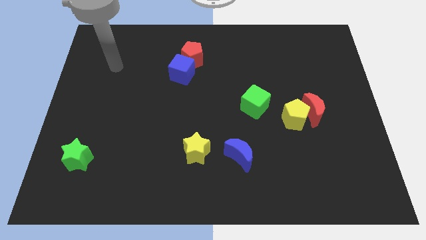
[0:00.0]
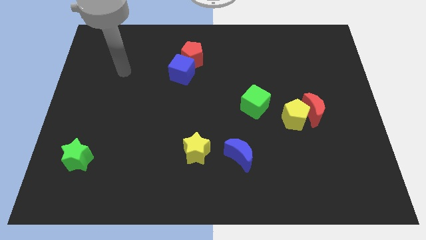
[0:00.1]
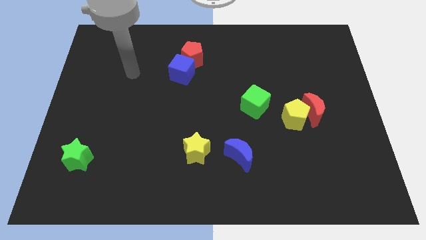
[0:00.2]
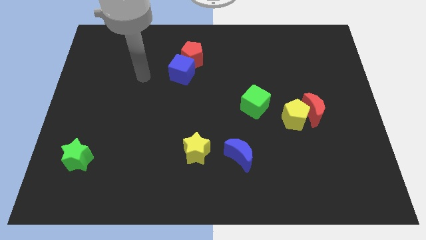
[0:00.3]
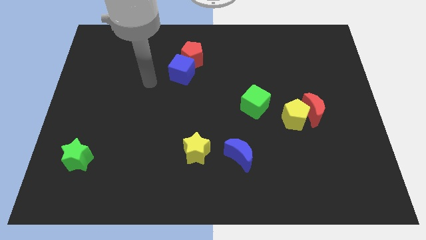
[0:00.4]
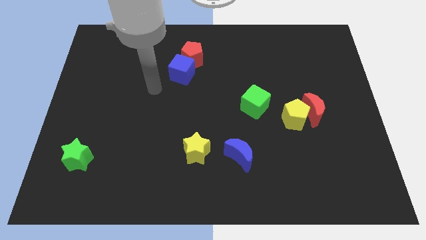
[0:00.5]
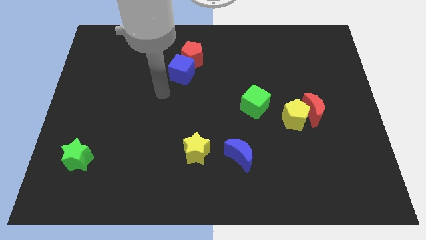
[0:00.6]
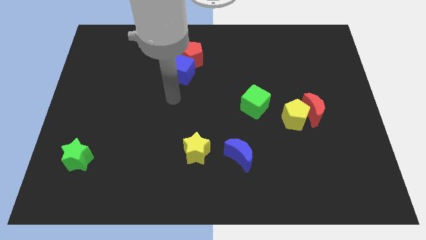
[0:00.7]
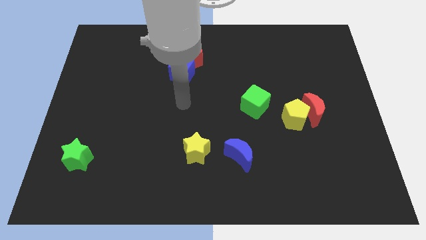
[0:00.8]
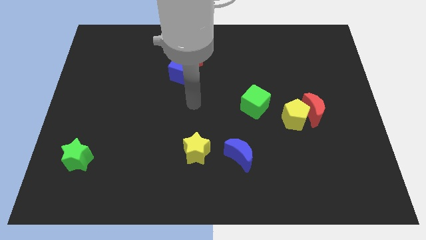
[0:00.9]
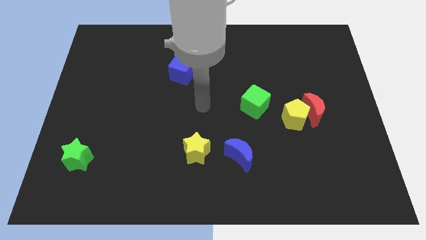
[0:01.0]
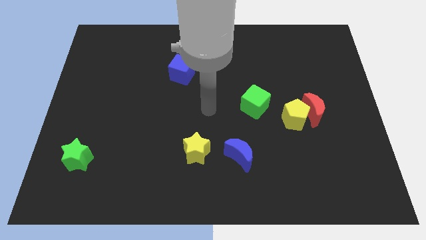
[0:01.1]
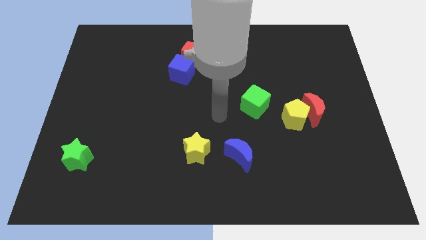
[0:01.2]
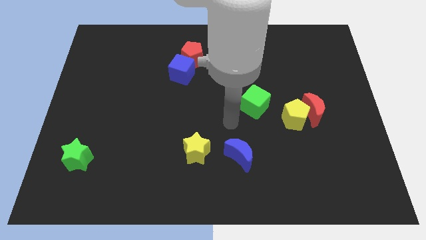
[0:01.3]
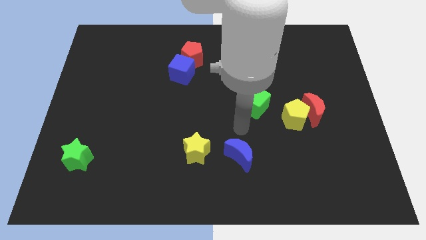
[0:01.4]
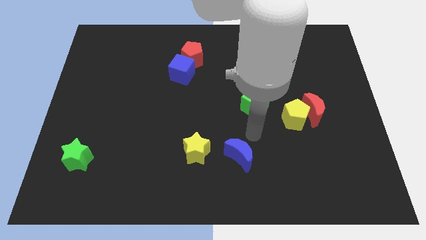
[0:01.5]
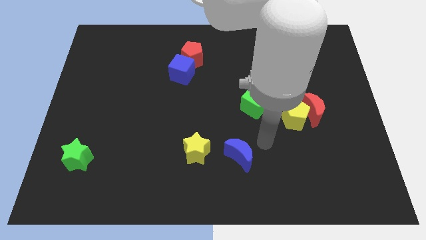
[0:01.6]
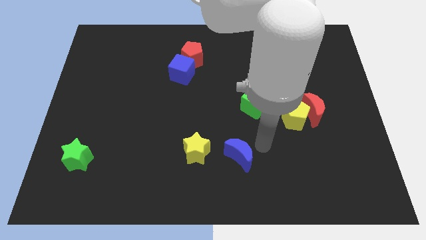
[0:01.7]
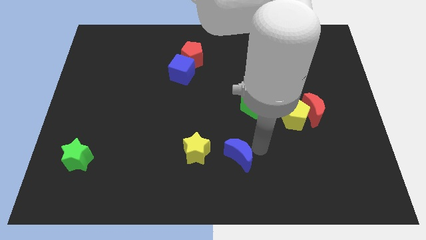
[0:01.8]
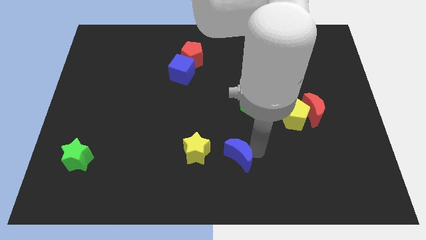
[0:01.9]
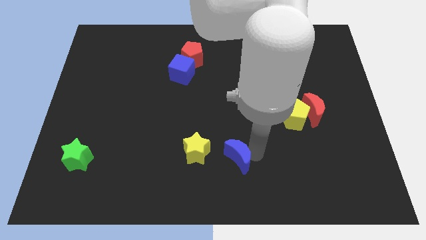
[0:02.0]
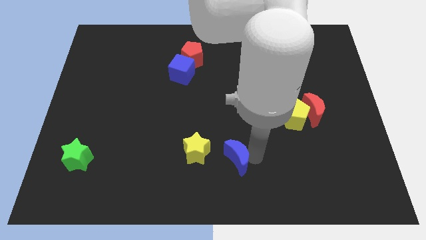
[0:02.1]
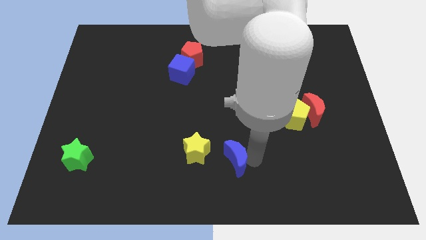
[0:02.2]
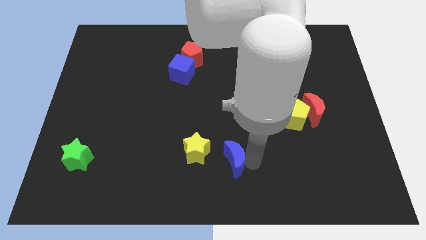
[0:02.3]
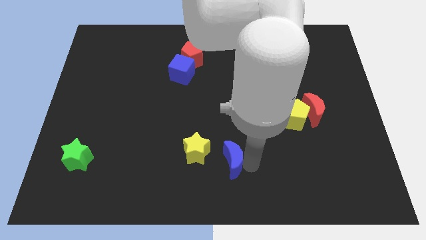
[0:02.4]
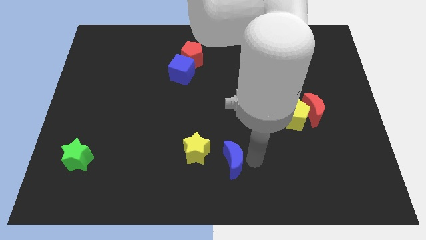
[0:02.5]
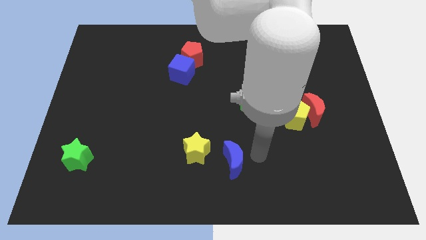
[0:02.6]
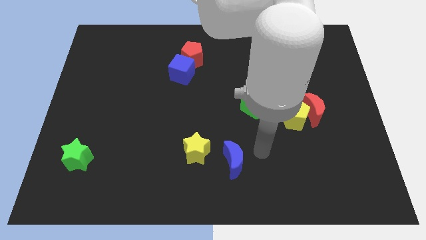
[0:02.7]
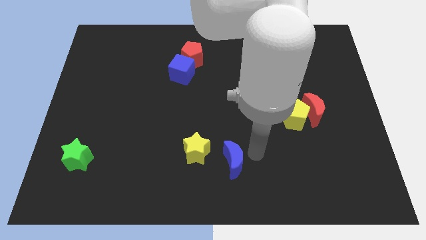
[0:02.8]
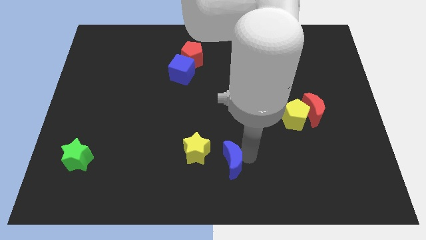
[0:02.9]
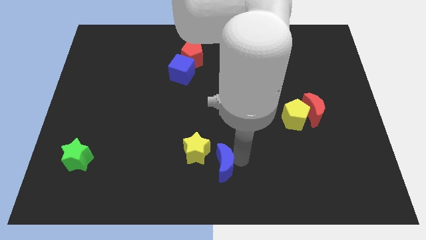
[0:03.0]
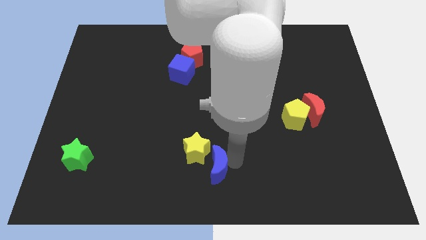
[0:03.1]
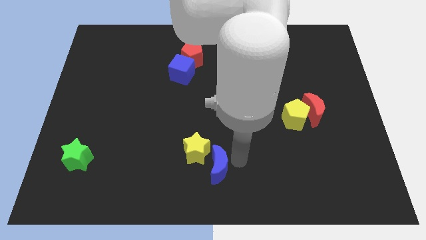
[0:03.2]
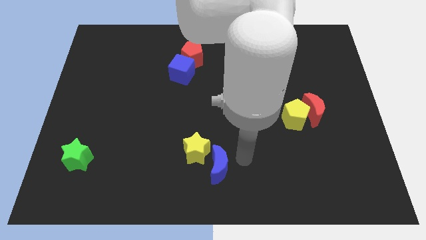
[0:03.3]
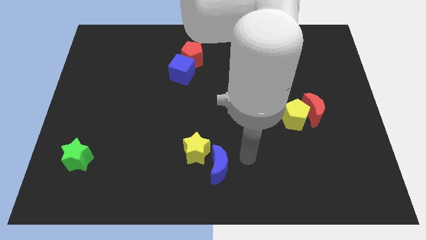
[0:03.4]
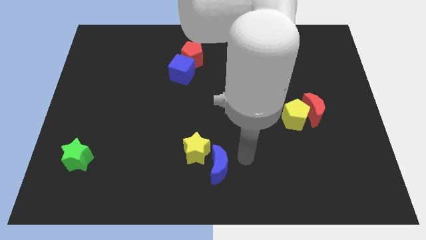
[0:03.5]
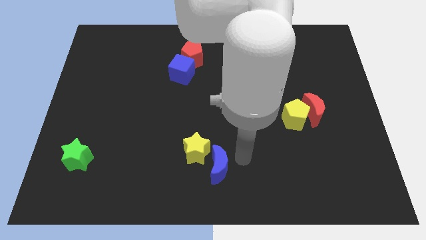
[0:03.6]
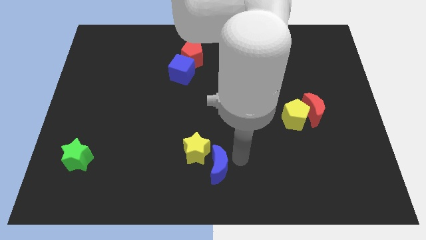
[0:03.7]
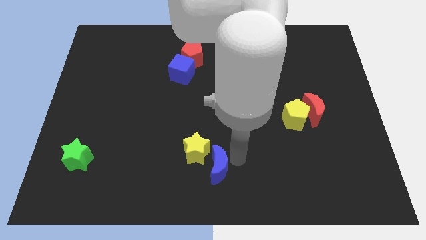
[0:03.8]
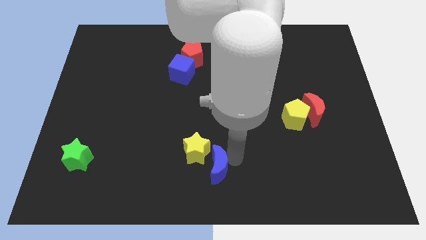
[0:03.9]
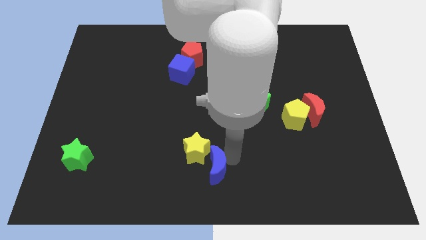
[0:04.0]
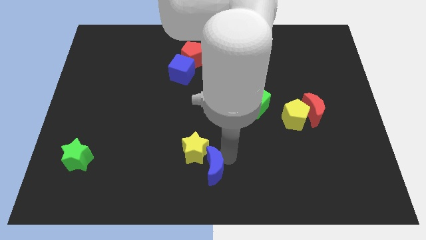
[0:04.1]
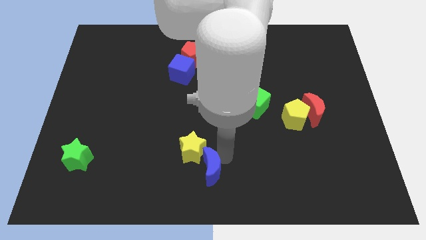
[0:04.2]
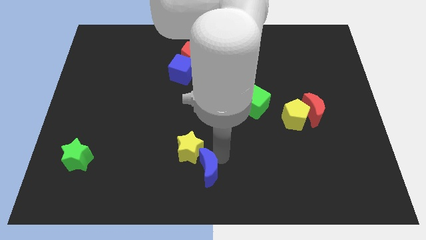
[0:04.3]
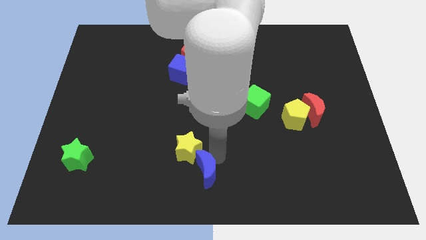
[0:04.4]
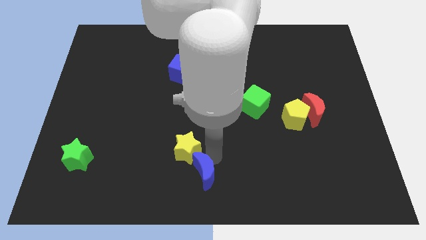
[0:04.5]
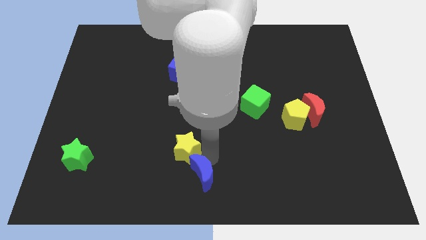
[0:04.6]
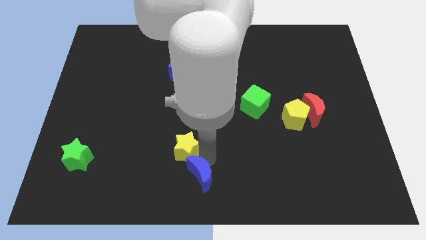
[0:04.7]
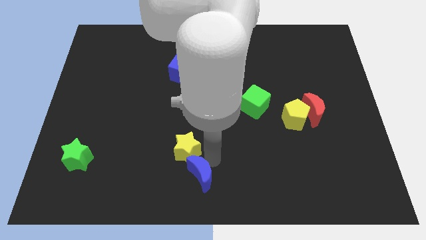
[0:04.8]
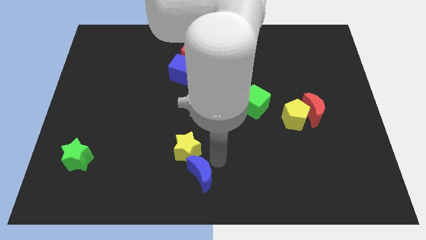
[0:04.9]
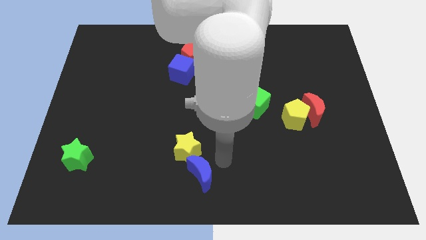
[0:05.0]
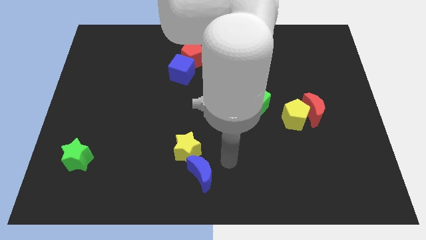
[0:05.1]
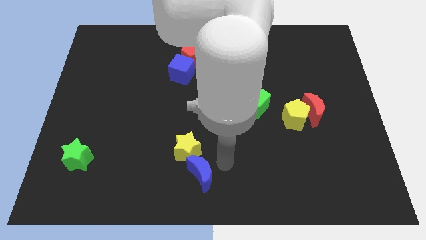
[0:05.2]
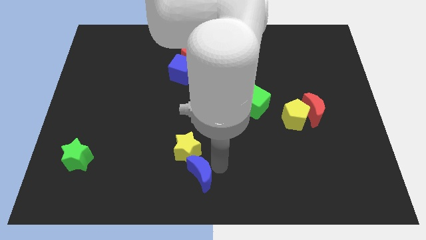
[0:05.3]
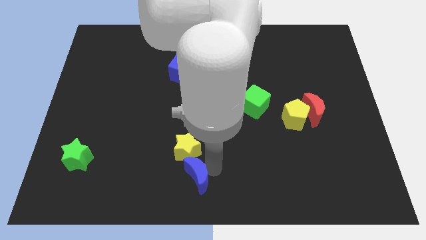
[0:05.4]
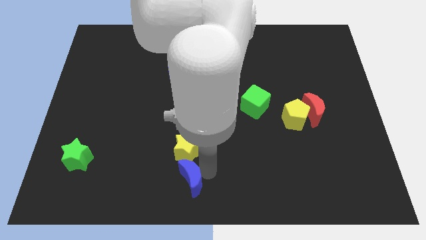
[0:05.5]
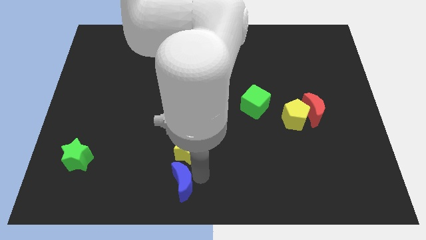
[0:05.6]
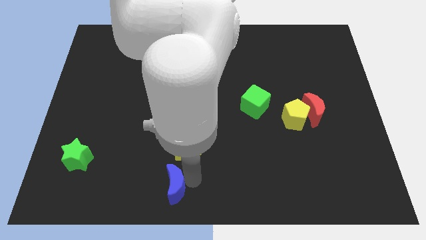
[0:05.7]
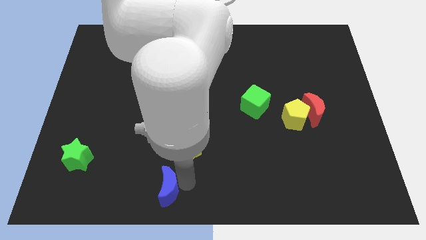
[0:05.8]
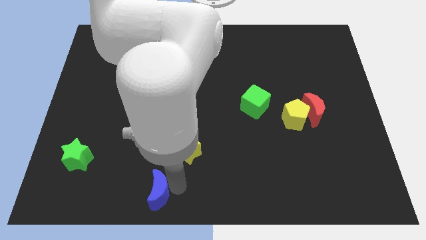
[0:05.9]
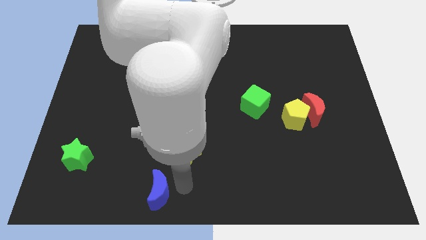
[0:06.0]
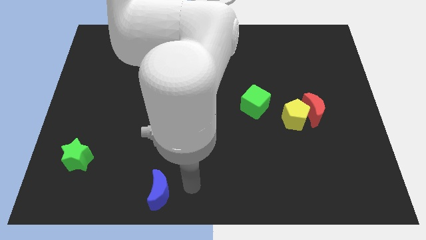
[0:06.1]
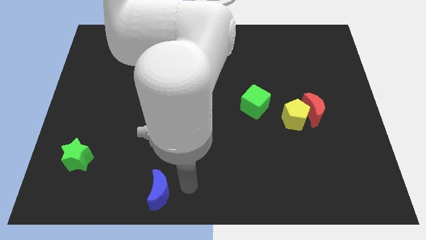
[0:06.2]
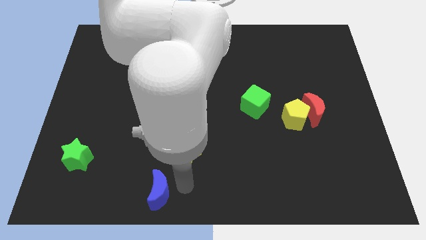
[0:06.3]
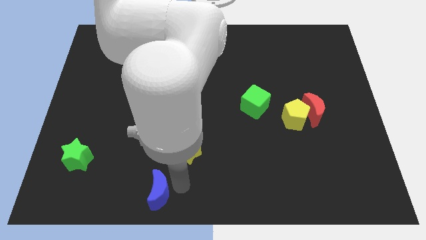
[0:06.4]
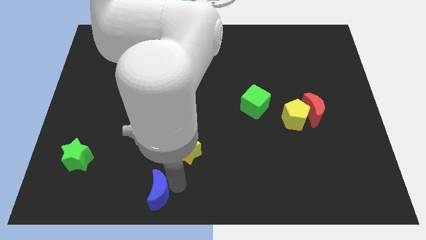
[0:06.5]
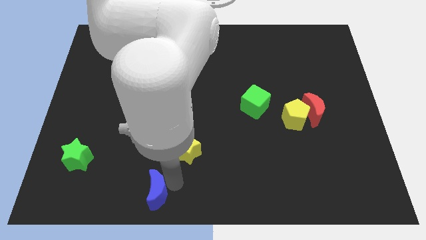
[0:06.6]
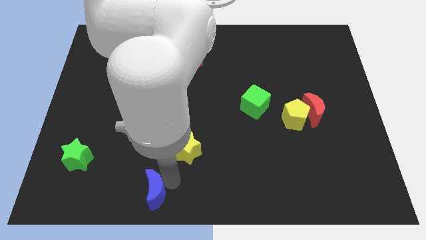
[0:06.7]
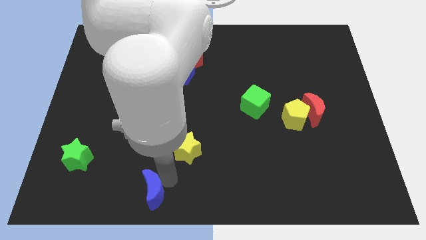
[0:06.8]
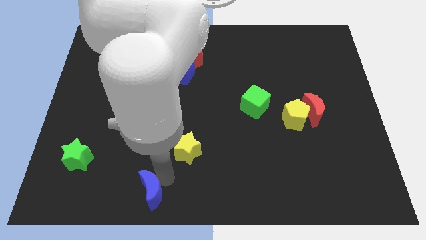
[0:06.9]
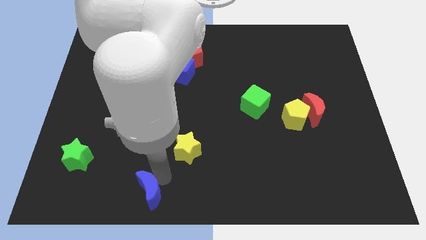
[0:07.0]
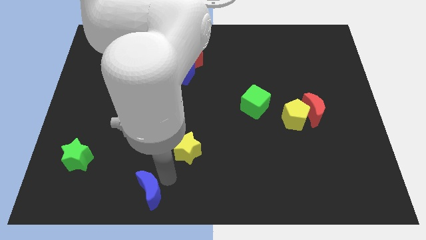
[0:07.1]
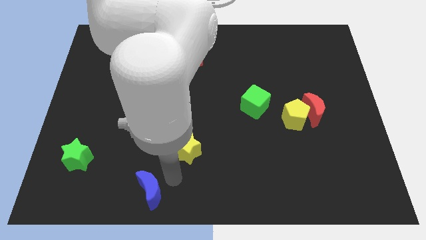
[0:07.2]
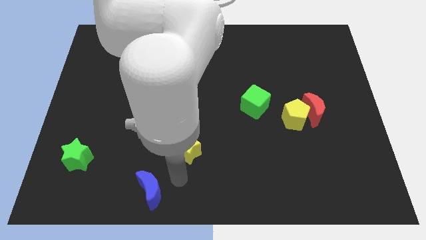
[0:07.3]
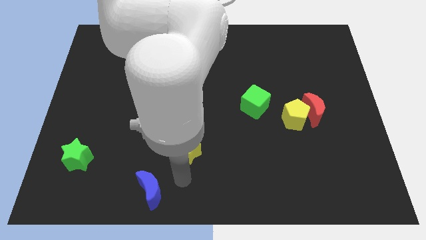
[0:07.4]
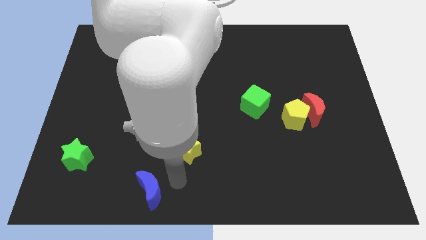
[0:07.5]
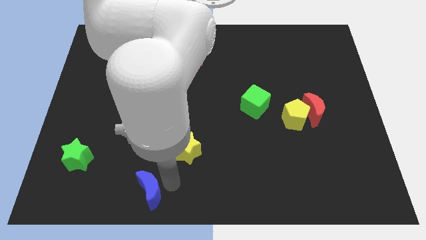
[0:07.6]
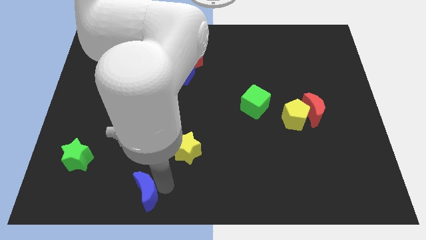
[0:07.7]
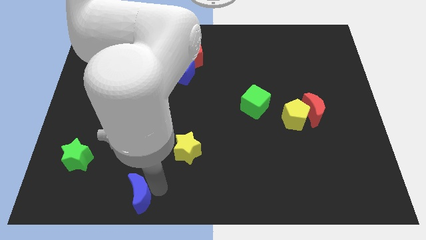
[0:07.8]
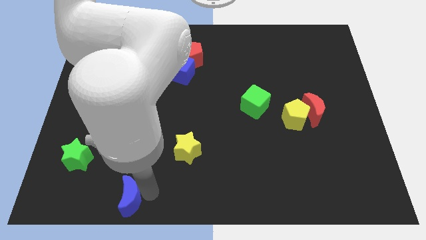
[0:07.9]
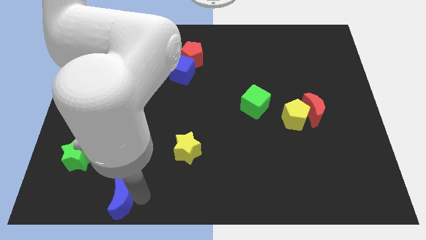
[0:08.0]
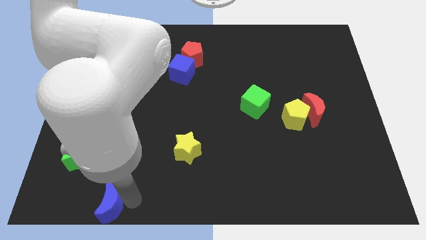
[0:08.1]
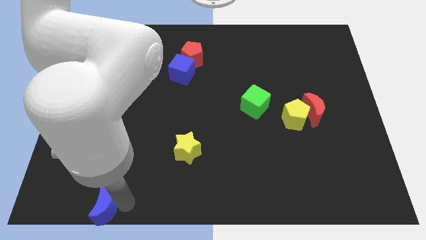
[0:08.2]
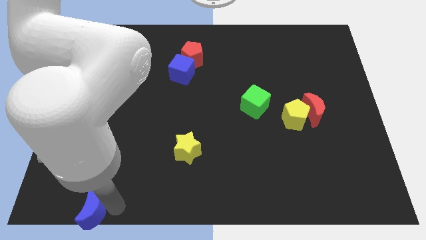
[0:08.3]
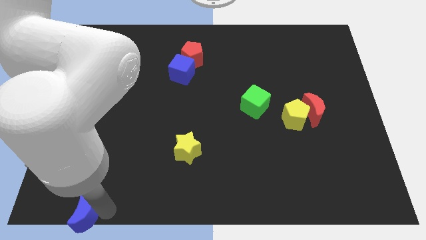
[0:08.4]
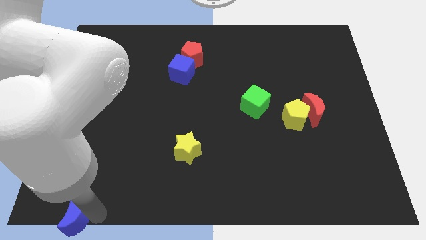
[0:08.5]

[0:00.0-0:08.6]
put the blue moon to the bottom left corner
